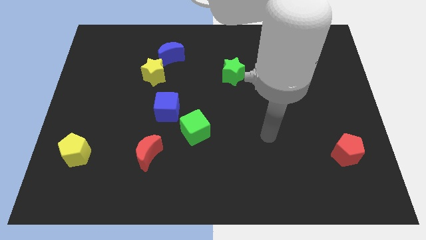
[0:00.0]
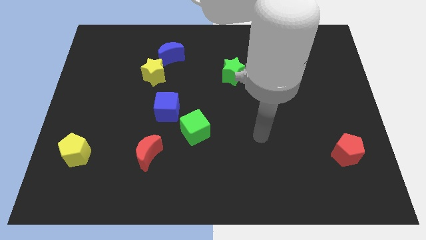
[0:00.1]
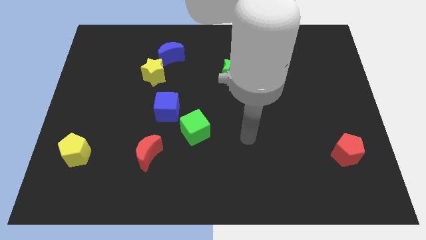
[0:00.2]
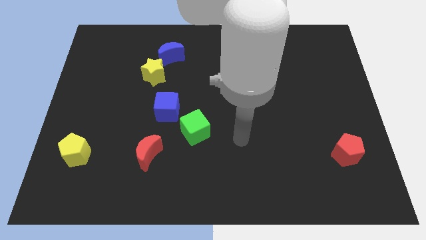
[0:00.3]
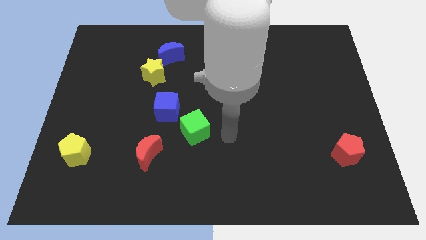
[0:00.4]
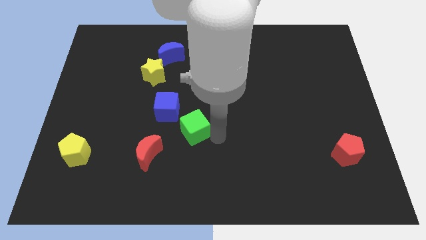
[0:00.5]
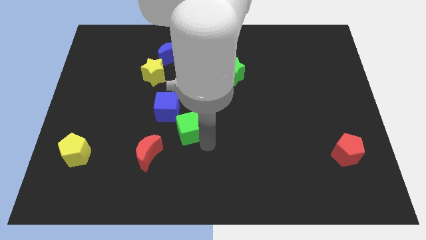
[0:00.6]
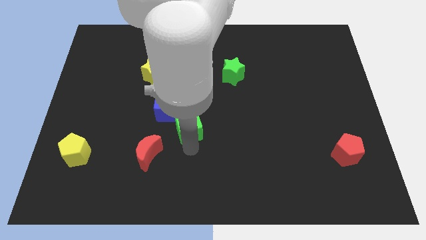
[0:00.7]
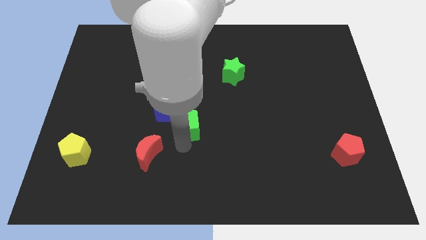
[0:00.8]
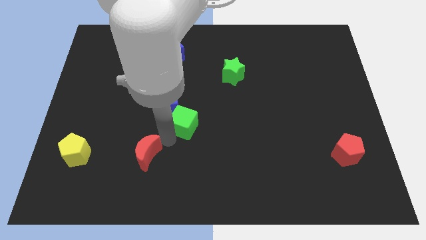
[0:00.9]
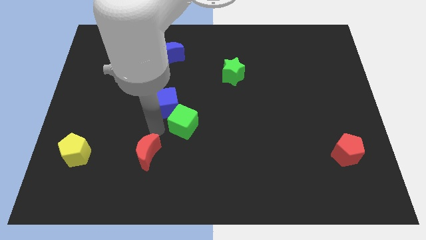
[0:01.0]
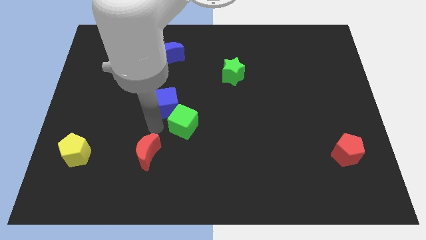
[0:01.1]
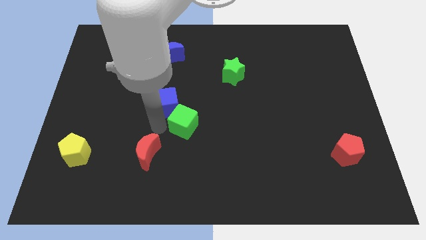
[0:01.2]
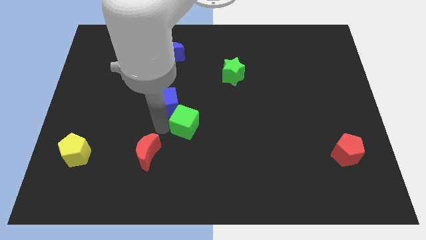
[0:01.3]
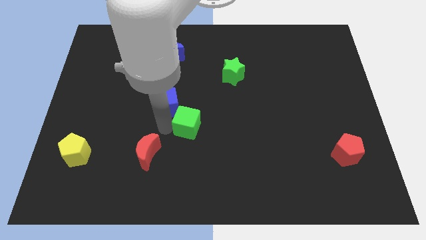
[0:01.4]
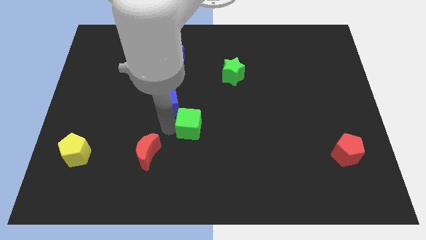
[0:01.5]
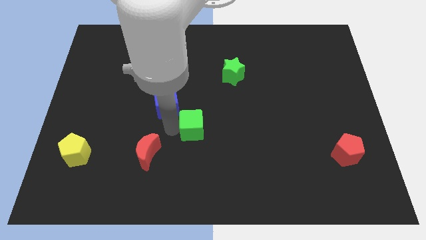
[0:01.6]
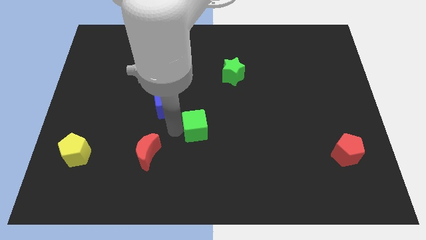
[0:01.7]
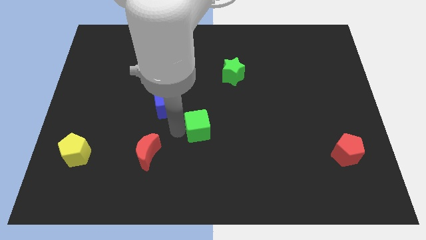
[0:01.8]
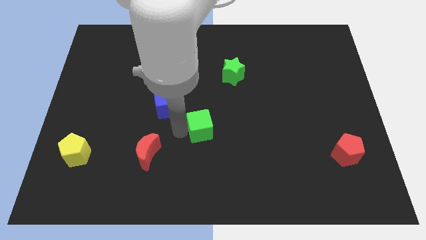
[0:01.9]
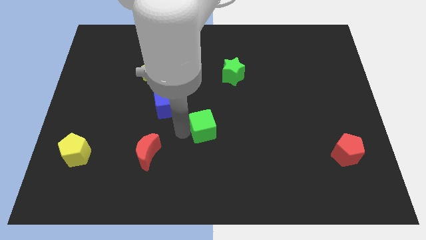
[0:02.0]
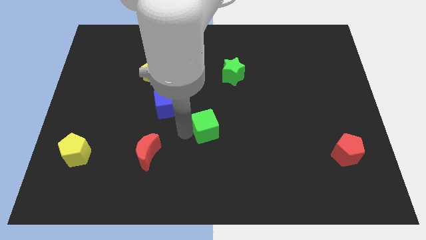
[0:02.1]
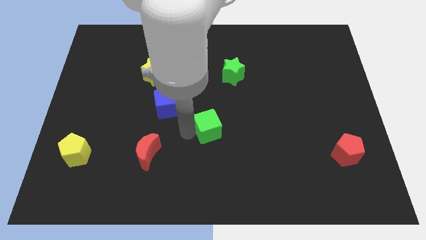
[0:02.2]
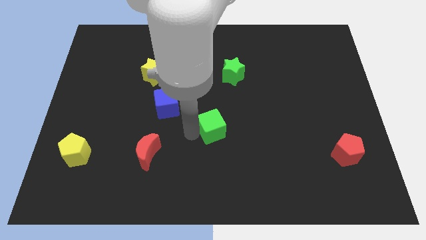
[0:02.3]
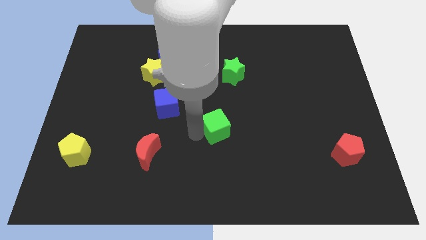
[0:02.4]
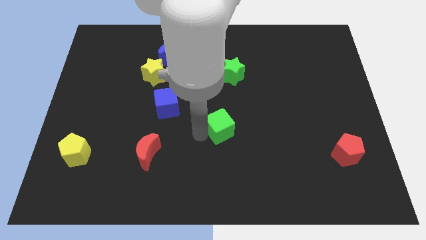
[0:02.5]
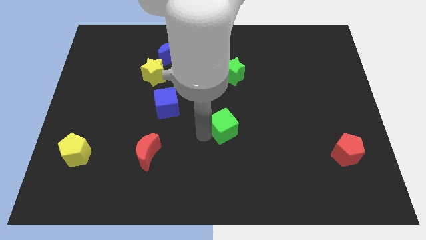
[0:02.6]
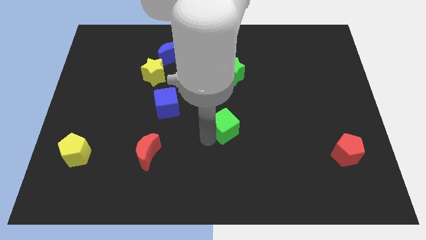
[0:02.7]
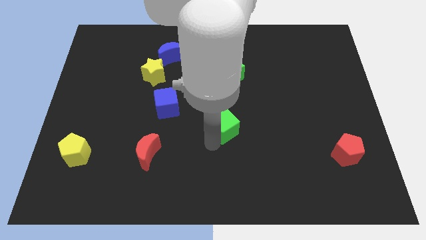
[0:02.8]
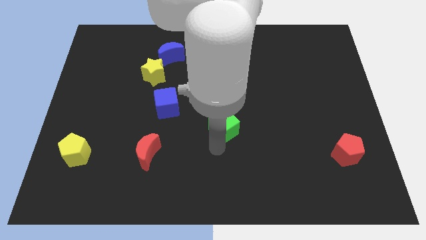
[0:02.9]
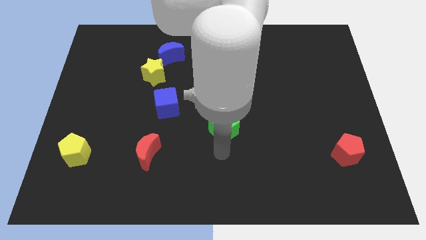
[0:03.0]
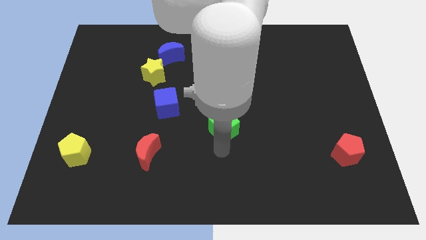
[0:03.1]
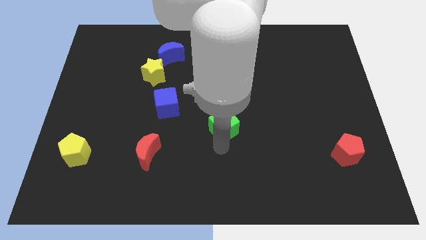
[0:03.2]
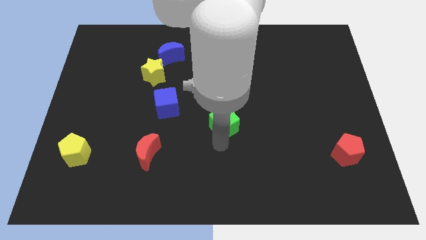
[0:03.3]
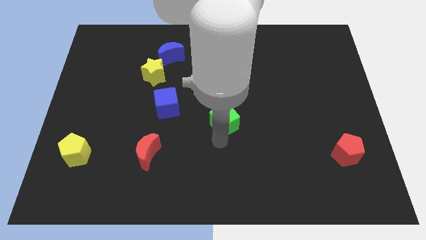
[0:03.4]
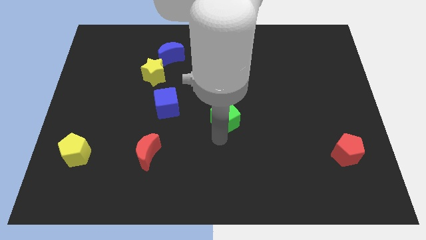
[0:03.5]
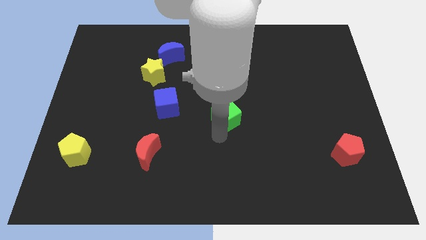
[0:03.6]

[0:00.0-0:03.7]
move the green cube up and right diagonally a little bit

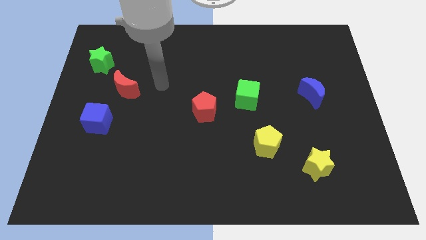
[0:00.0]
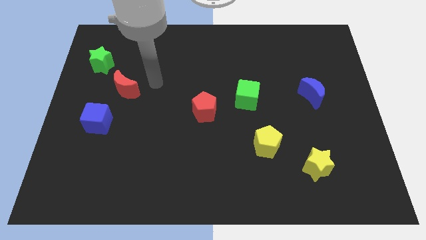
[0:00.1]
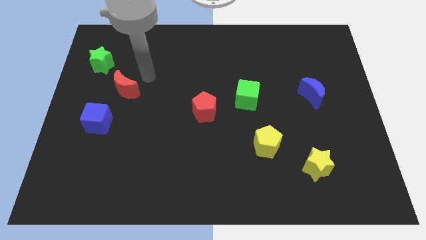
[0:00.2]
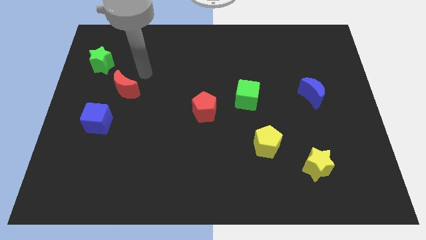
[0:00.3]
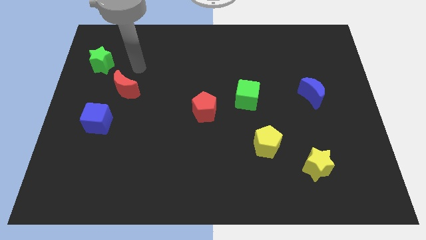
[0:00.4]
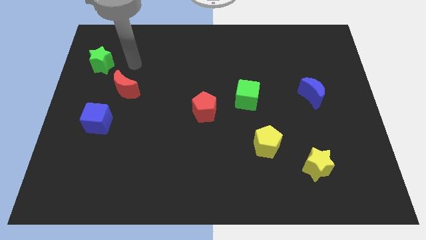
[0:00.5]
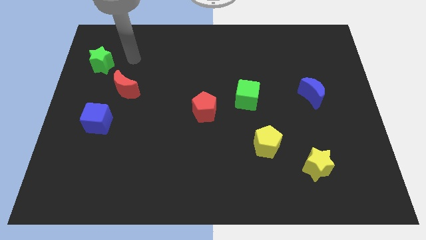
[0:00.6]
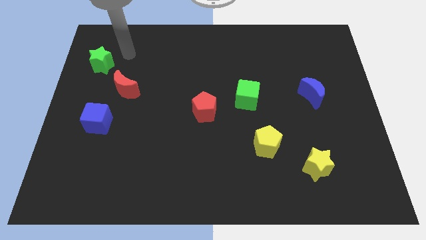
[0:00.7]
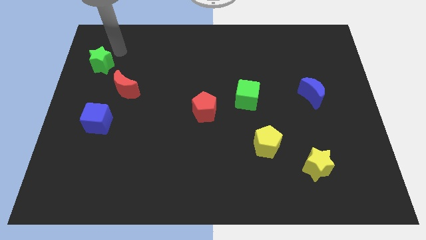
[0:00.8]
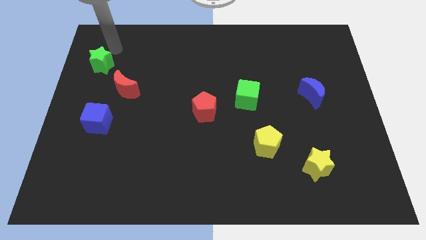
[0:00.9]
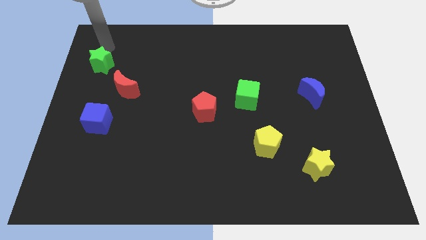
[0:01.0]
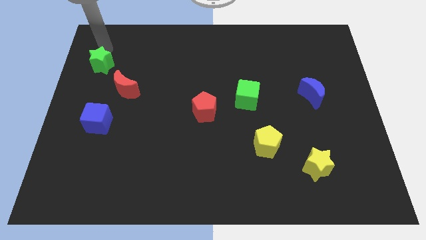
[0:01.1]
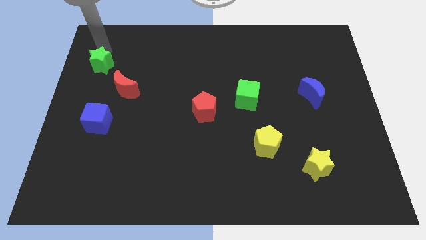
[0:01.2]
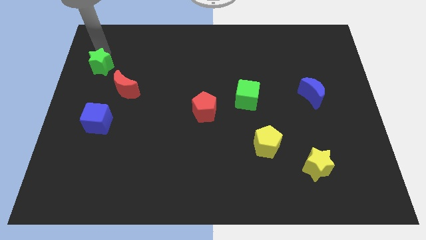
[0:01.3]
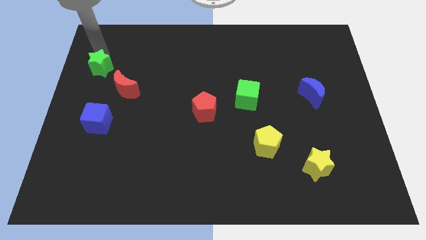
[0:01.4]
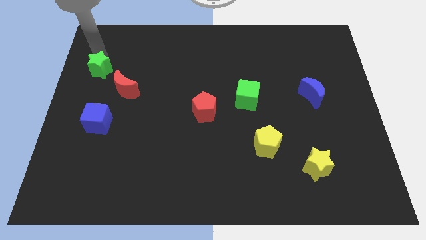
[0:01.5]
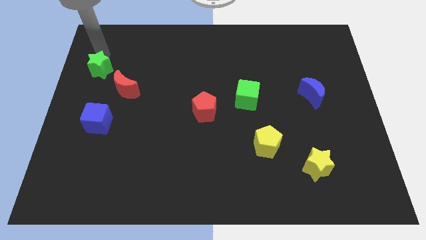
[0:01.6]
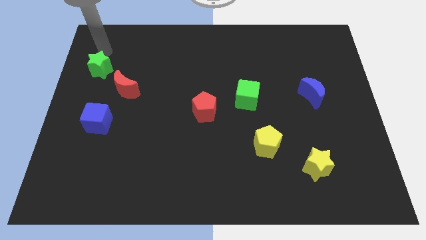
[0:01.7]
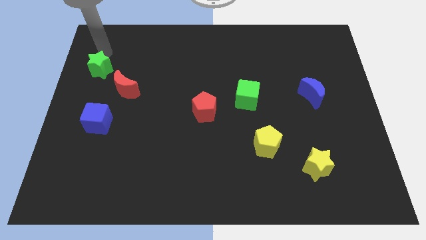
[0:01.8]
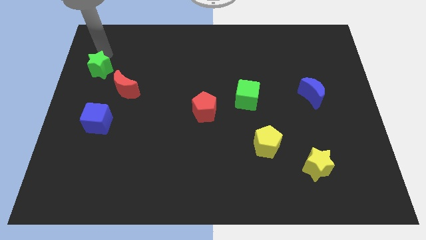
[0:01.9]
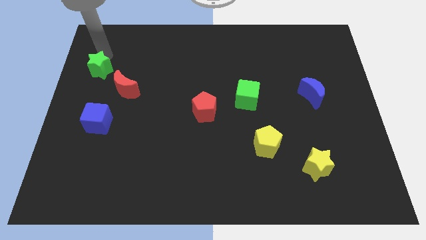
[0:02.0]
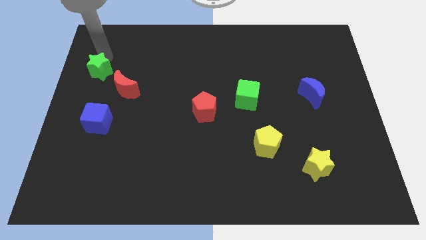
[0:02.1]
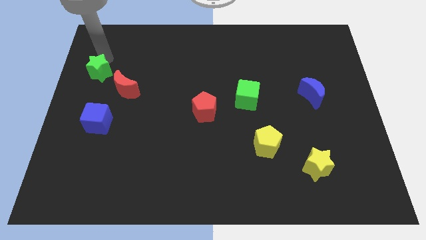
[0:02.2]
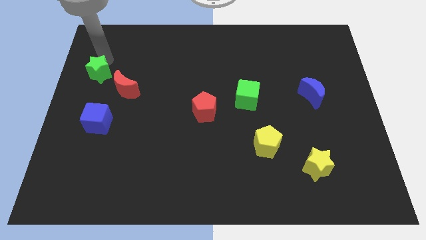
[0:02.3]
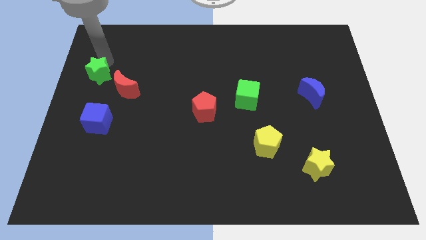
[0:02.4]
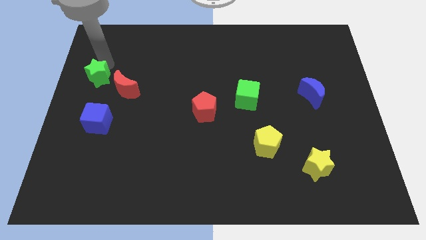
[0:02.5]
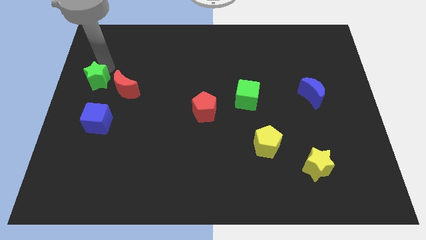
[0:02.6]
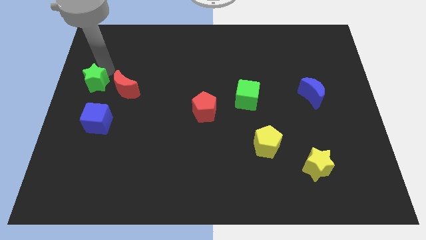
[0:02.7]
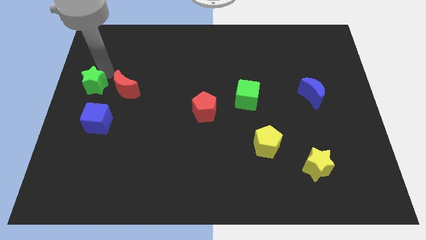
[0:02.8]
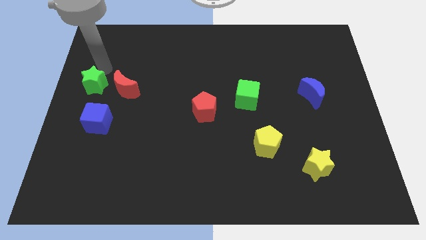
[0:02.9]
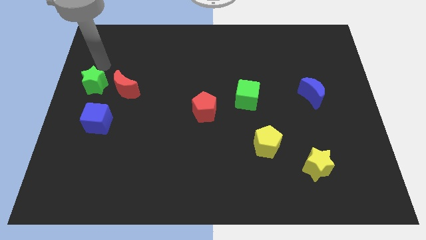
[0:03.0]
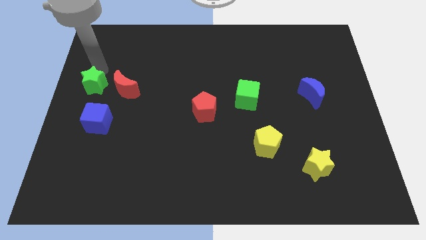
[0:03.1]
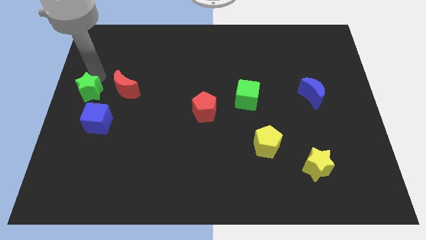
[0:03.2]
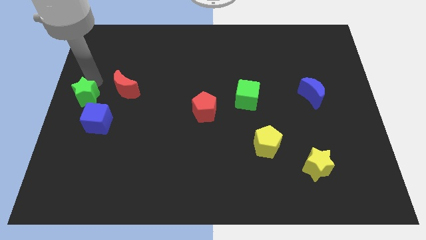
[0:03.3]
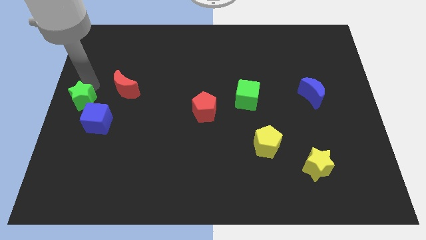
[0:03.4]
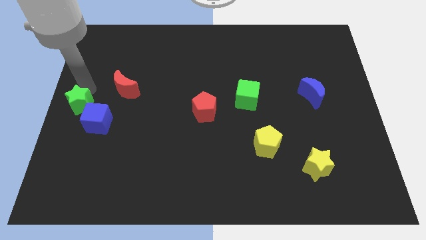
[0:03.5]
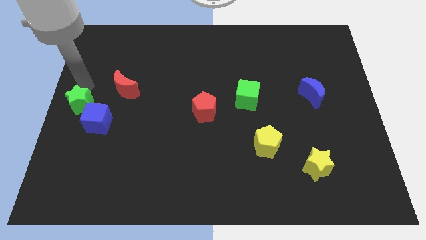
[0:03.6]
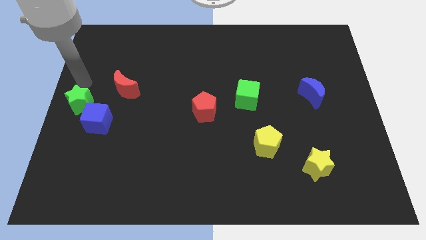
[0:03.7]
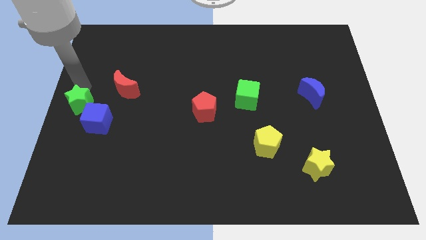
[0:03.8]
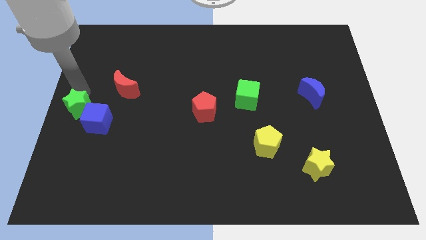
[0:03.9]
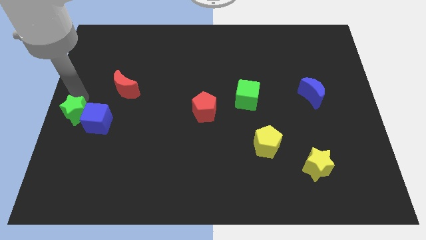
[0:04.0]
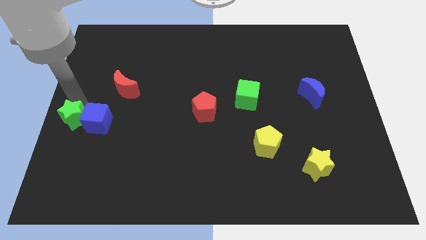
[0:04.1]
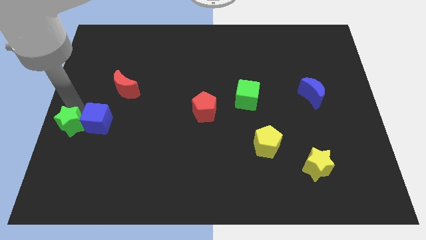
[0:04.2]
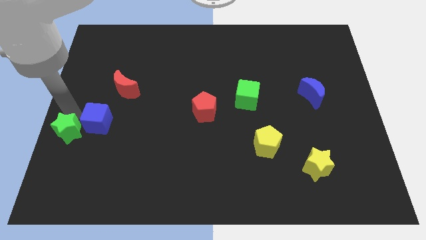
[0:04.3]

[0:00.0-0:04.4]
slide the green star down

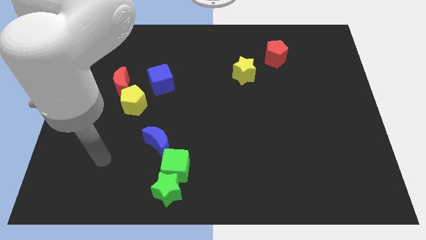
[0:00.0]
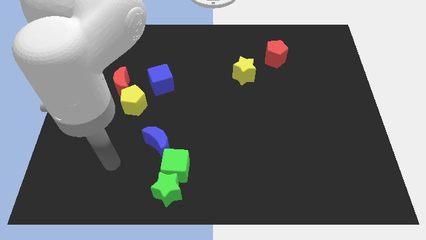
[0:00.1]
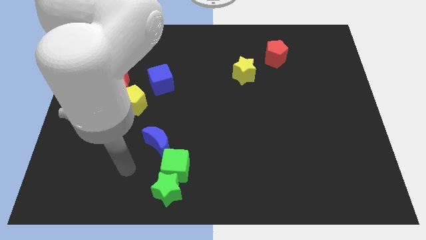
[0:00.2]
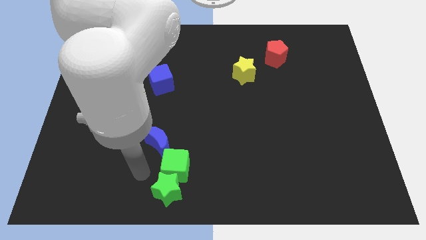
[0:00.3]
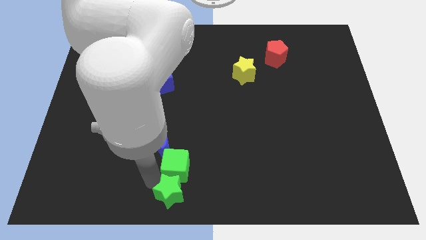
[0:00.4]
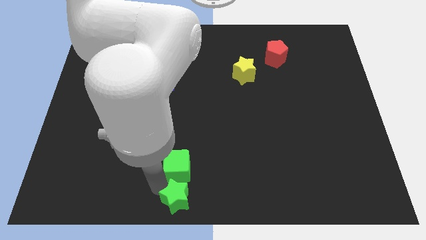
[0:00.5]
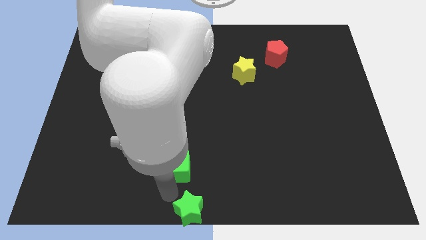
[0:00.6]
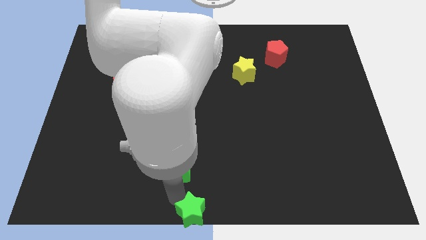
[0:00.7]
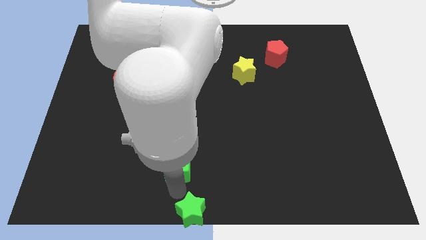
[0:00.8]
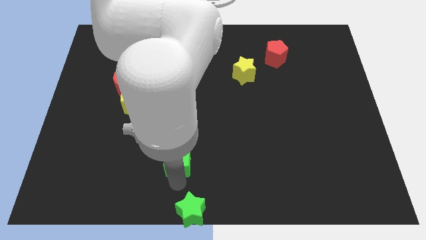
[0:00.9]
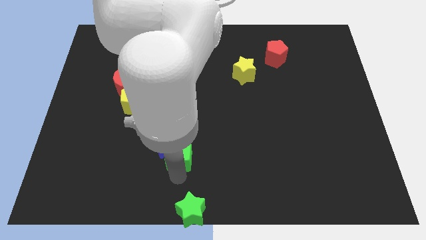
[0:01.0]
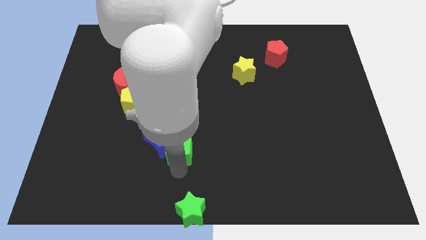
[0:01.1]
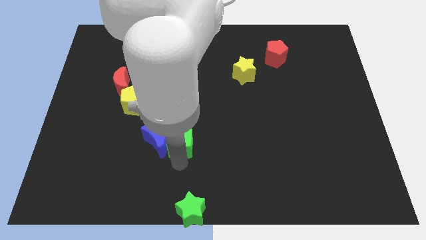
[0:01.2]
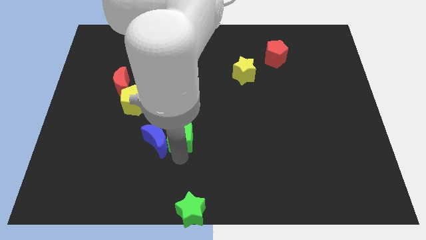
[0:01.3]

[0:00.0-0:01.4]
push the green cube upwards slightly
